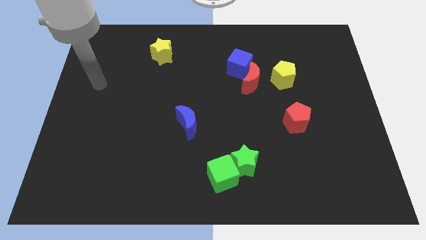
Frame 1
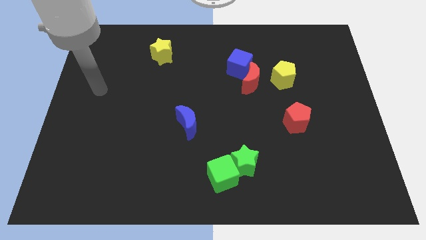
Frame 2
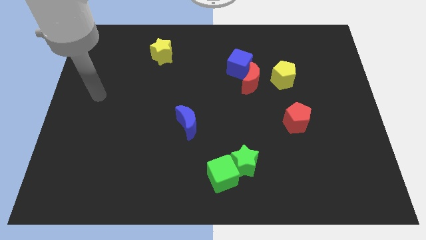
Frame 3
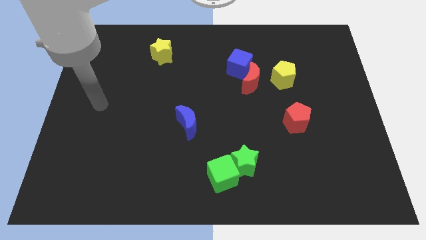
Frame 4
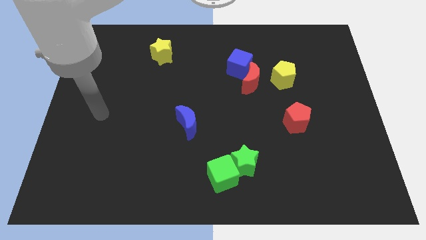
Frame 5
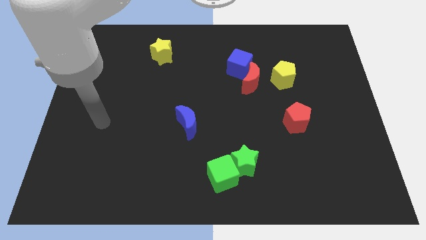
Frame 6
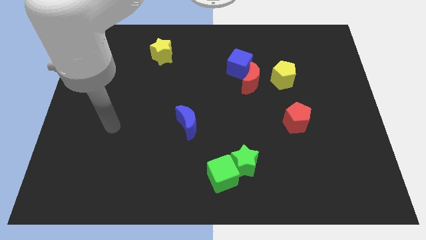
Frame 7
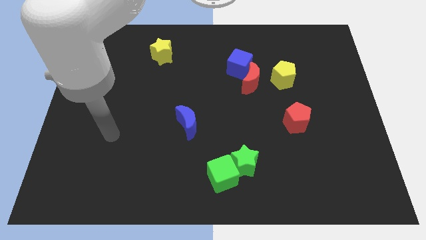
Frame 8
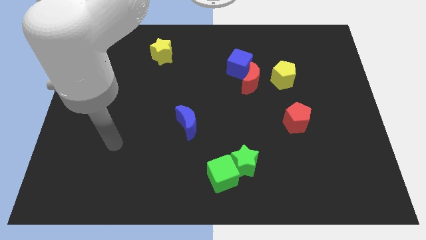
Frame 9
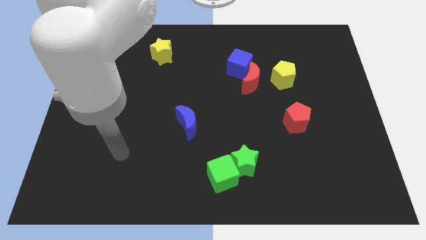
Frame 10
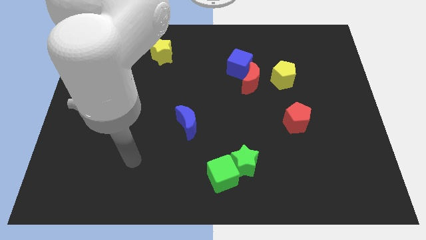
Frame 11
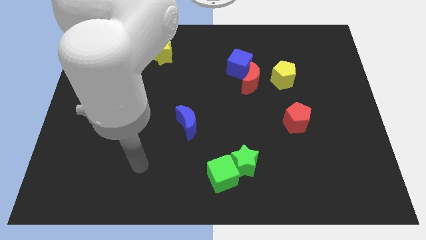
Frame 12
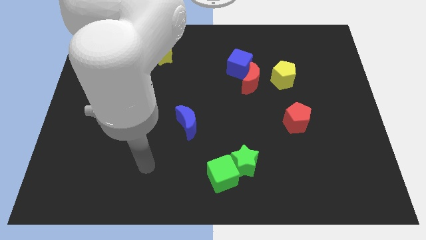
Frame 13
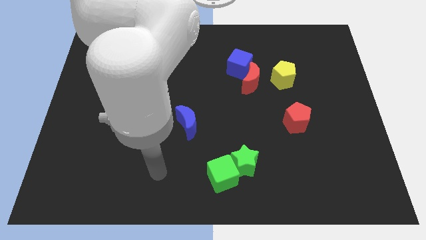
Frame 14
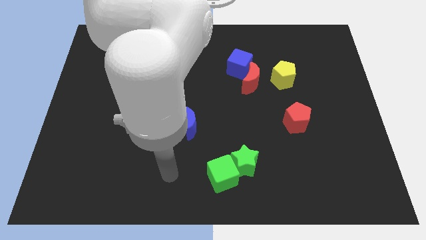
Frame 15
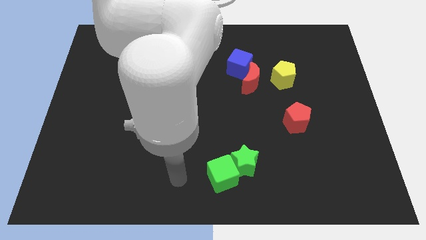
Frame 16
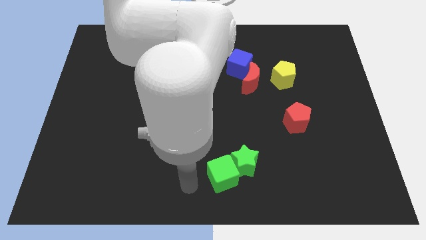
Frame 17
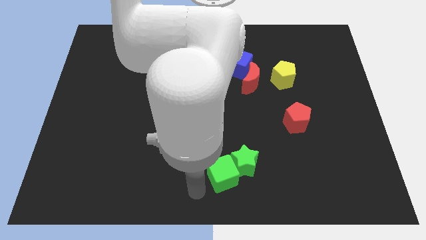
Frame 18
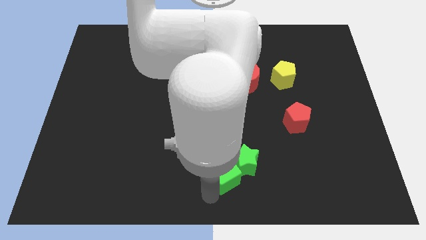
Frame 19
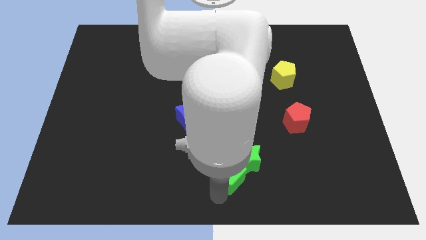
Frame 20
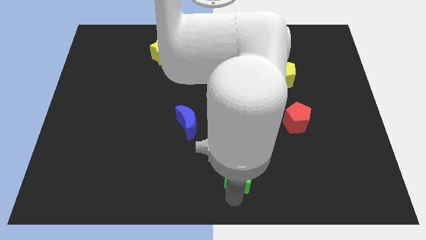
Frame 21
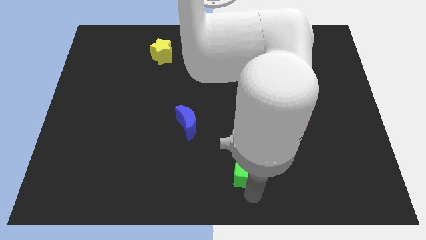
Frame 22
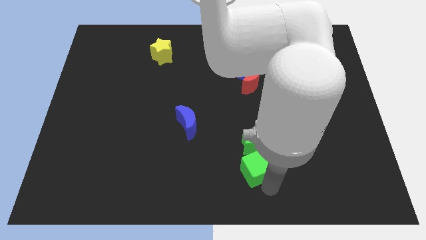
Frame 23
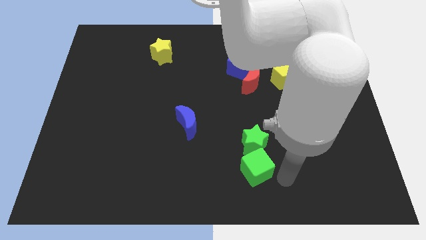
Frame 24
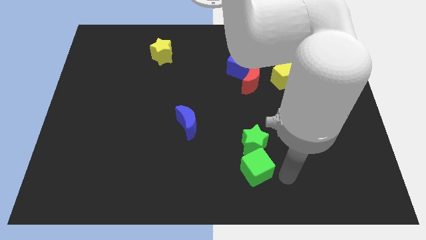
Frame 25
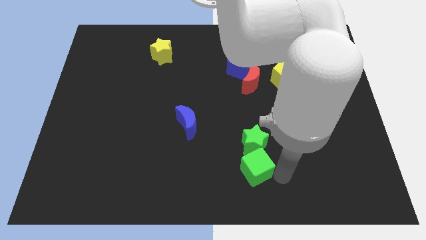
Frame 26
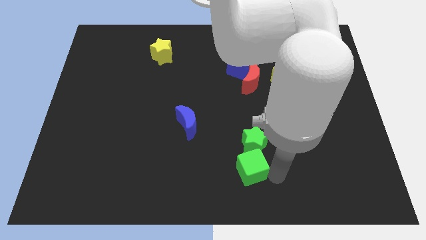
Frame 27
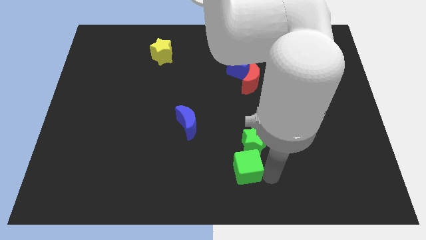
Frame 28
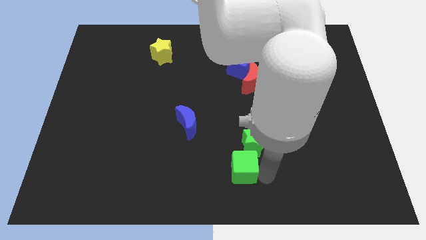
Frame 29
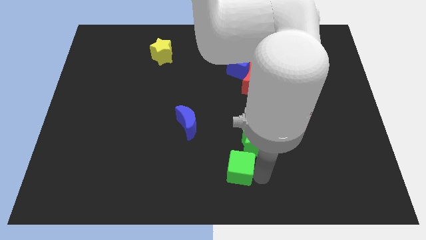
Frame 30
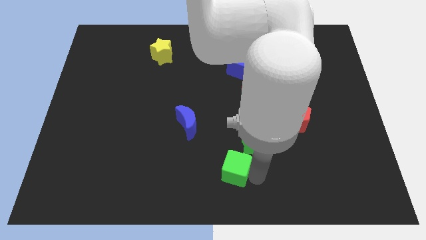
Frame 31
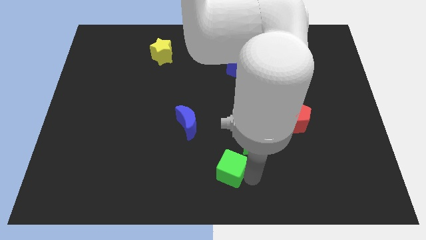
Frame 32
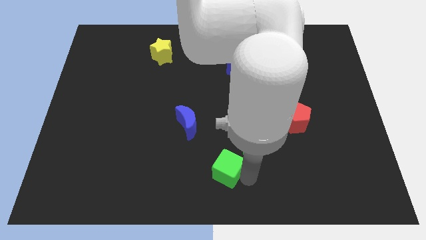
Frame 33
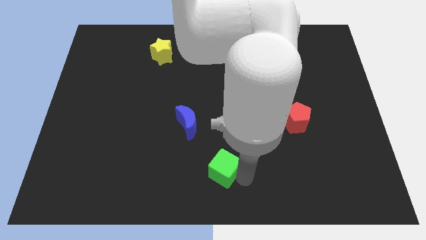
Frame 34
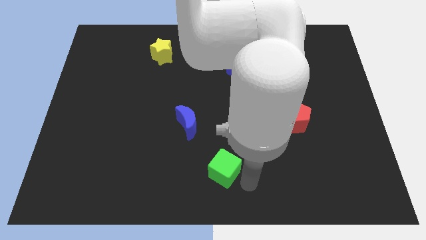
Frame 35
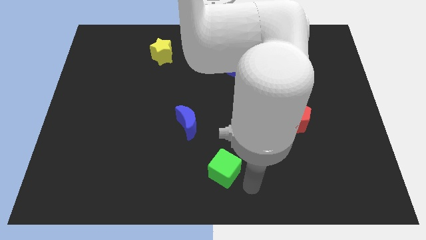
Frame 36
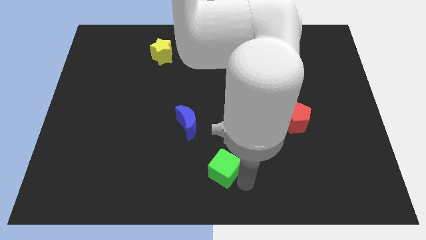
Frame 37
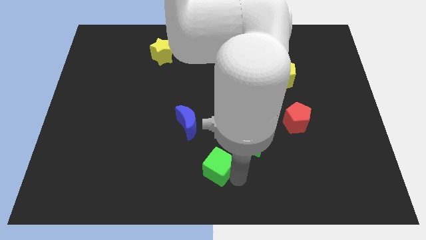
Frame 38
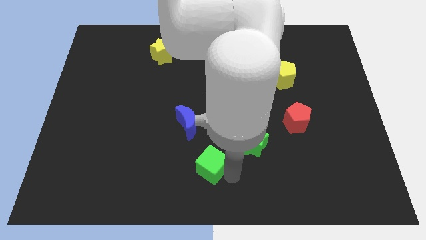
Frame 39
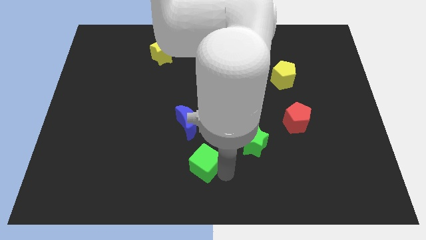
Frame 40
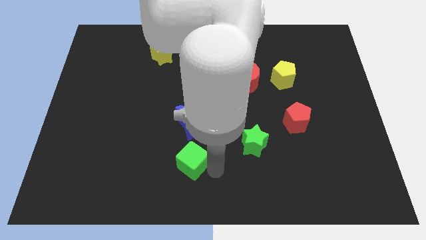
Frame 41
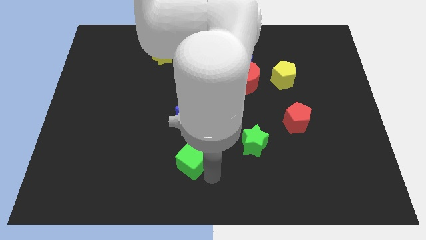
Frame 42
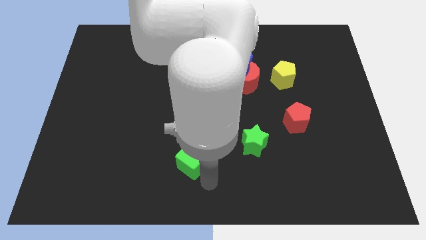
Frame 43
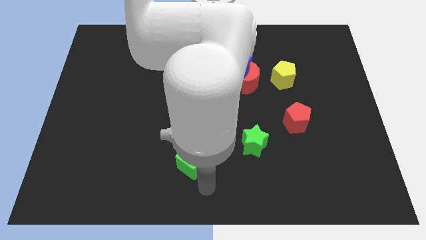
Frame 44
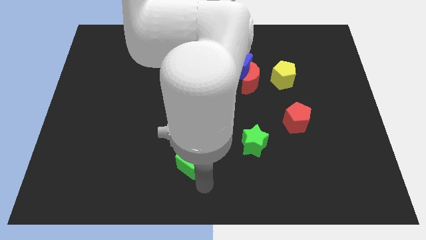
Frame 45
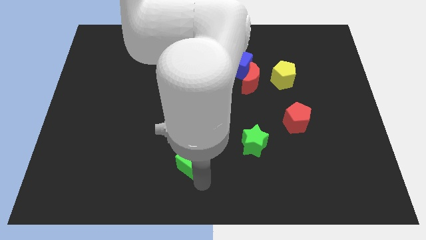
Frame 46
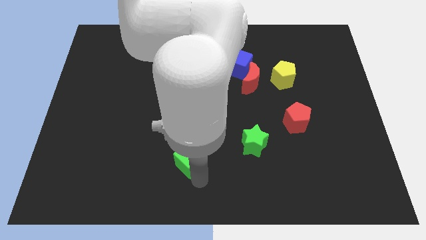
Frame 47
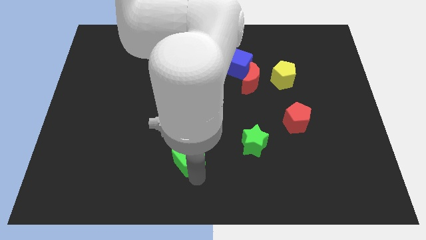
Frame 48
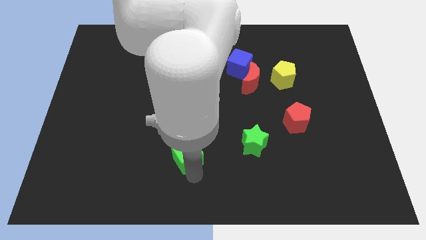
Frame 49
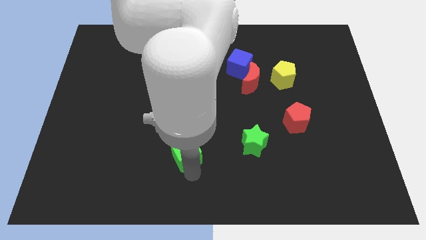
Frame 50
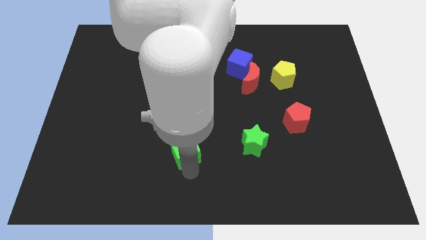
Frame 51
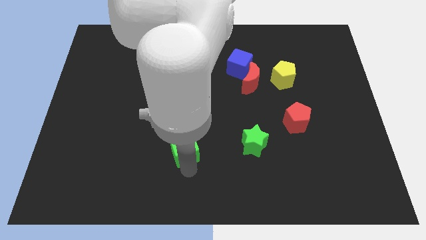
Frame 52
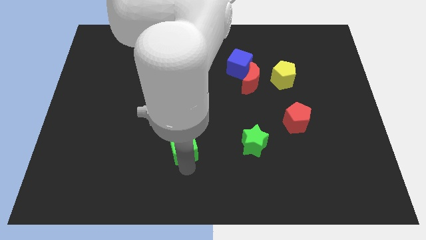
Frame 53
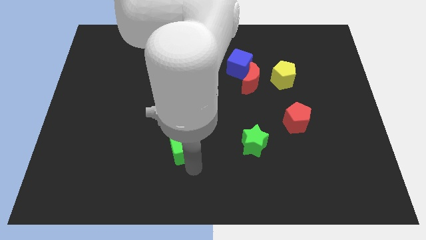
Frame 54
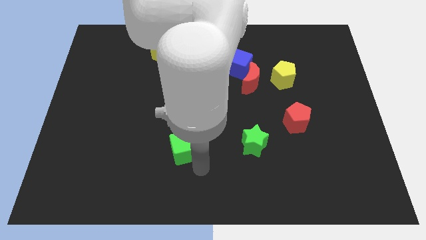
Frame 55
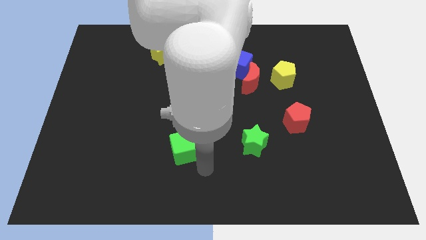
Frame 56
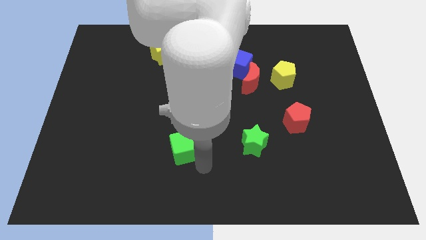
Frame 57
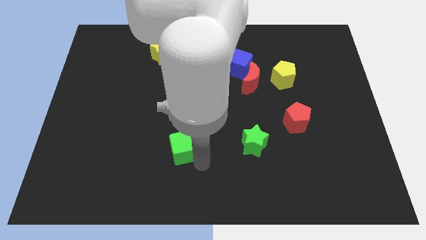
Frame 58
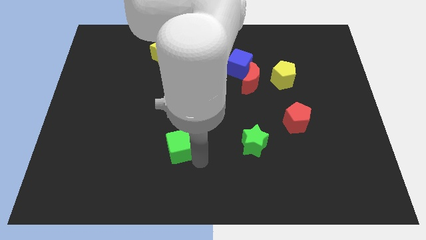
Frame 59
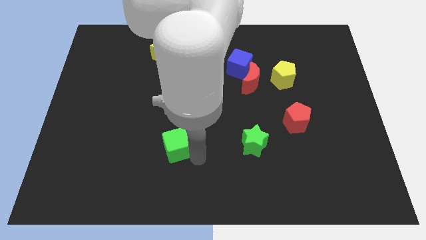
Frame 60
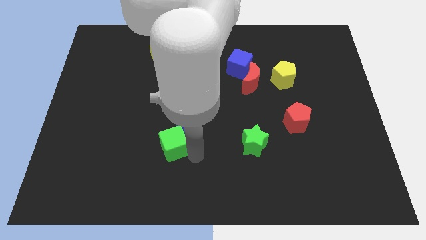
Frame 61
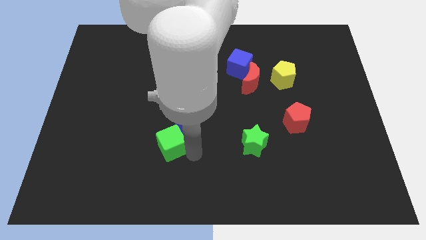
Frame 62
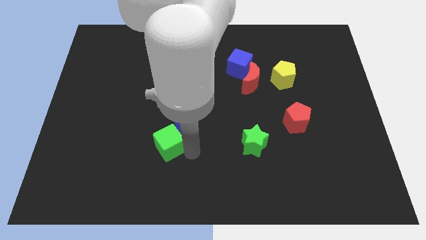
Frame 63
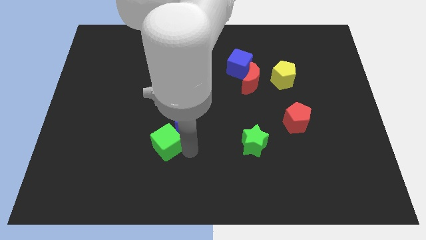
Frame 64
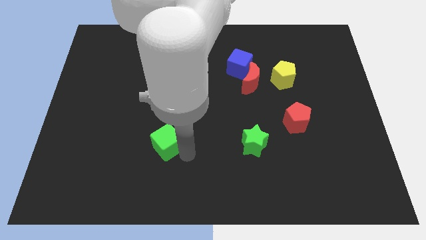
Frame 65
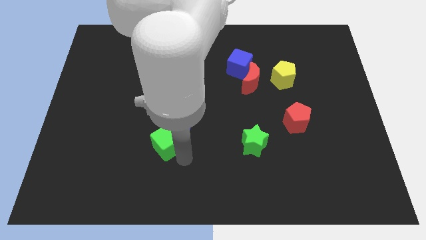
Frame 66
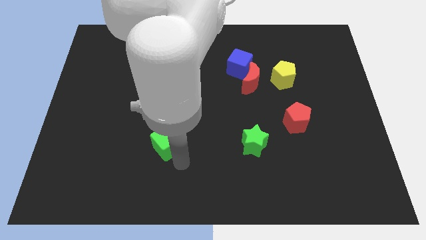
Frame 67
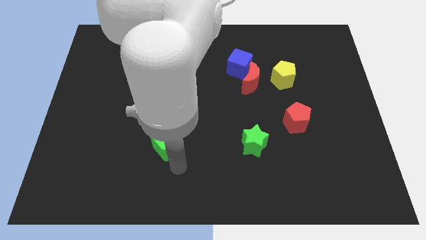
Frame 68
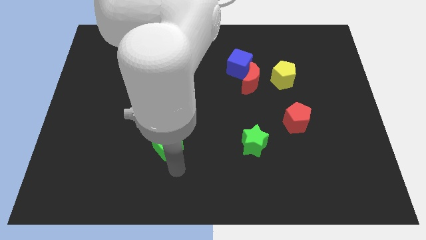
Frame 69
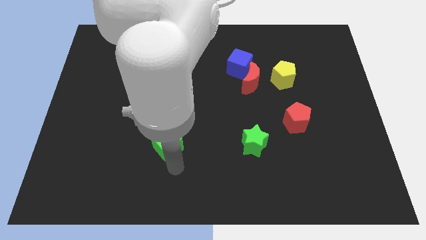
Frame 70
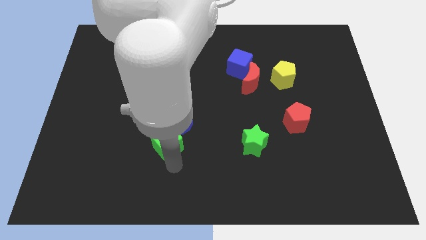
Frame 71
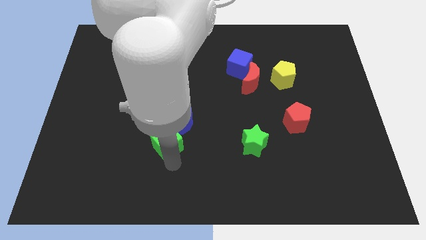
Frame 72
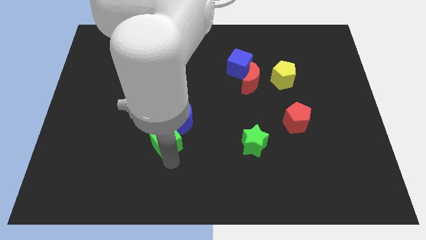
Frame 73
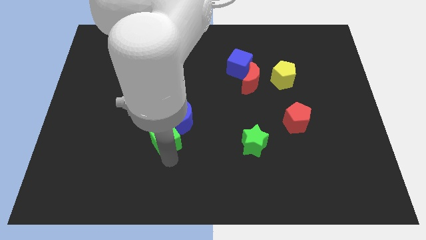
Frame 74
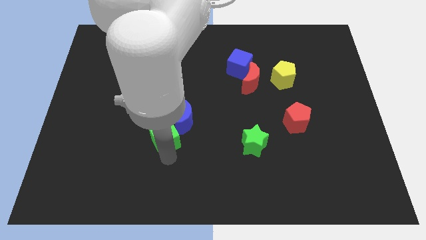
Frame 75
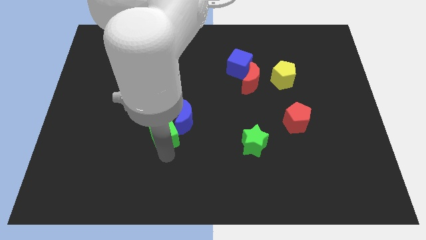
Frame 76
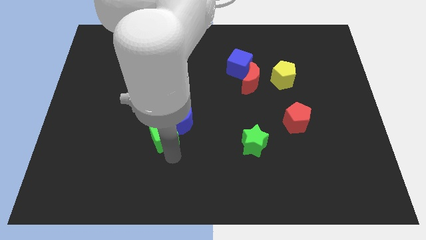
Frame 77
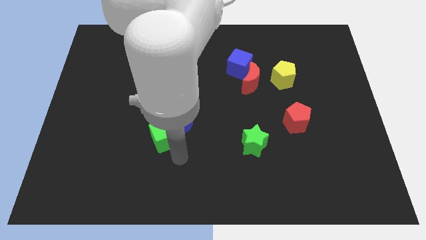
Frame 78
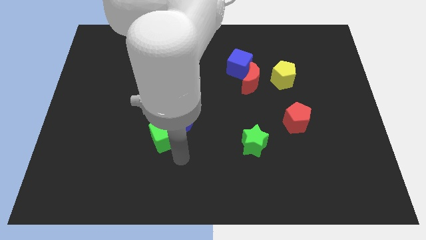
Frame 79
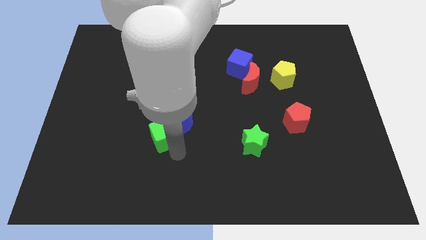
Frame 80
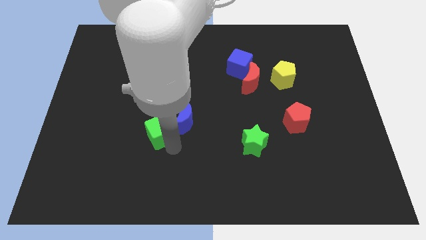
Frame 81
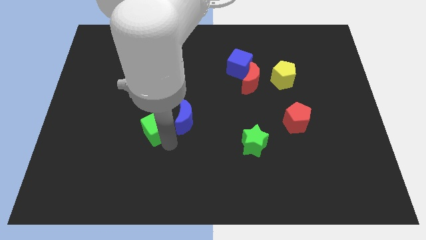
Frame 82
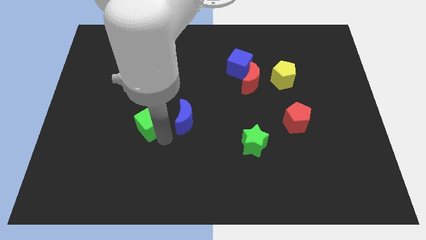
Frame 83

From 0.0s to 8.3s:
push the green cube upwards and left diagonally
